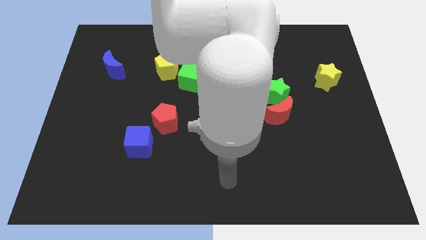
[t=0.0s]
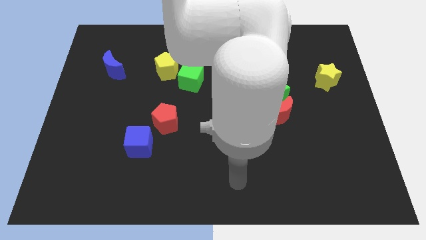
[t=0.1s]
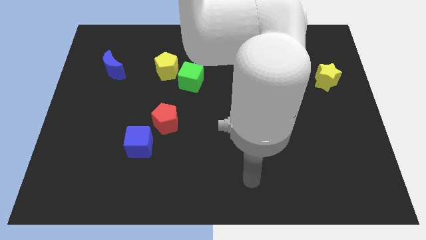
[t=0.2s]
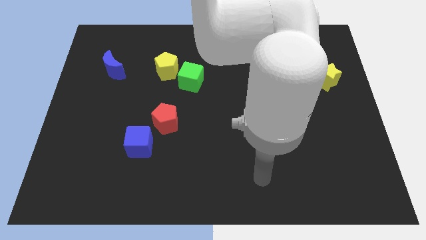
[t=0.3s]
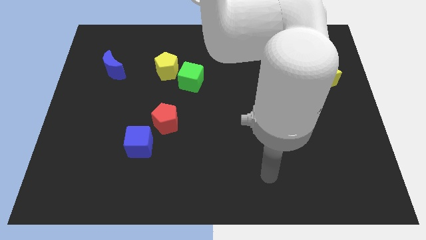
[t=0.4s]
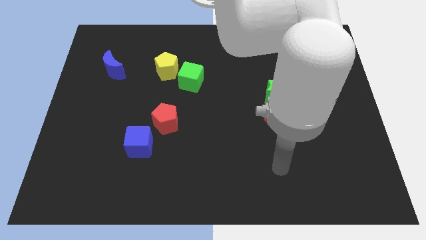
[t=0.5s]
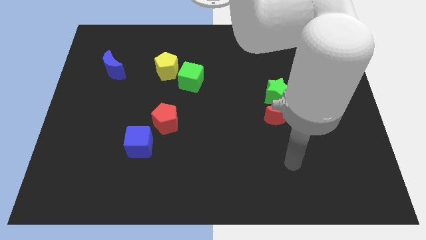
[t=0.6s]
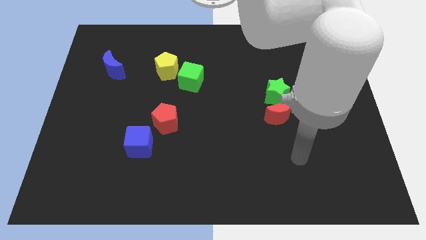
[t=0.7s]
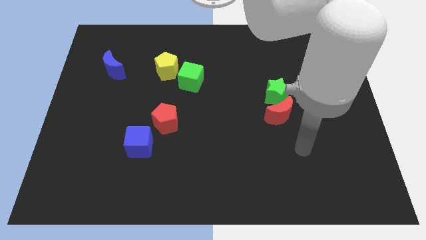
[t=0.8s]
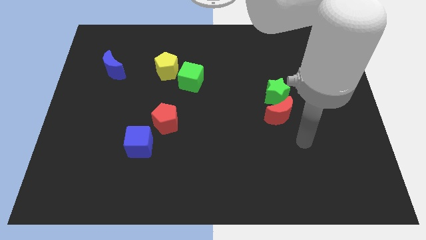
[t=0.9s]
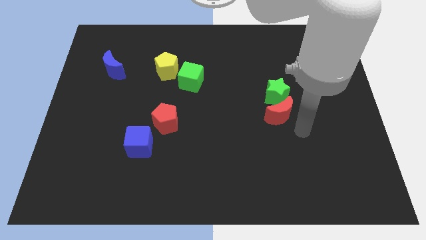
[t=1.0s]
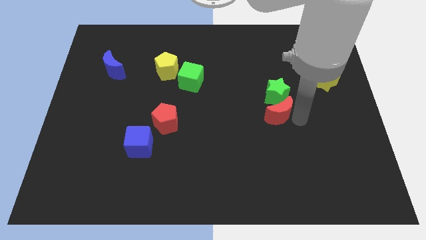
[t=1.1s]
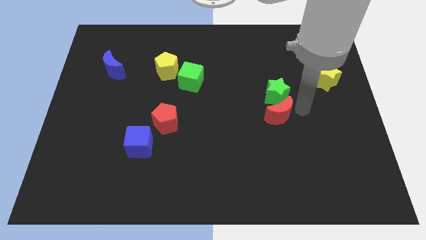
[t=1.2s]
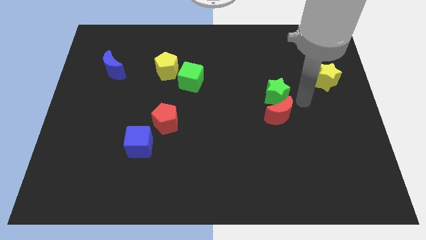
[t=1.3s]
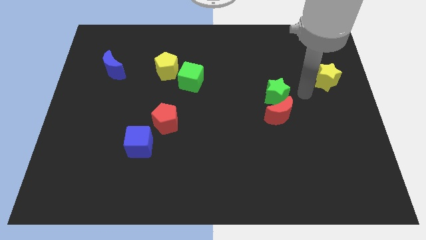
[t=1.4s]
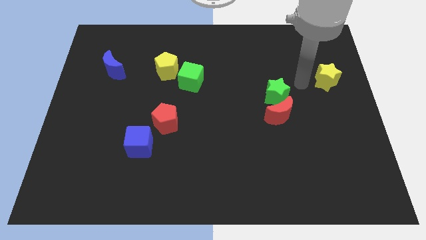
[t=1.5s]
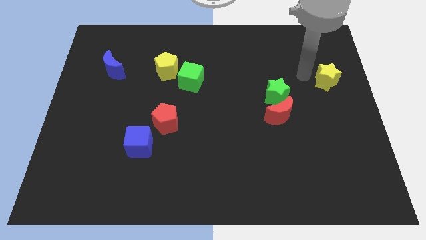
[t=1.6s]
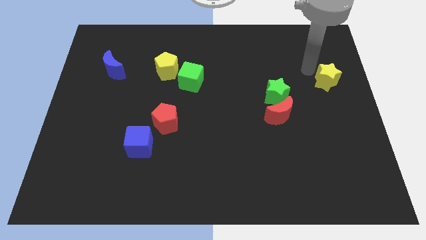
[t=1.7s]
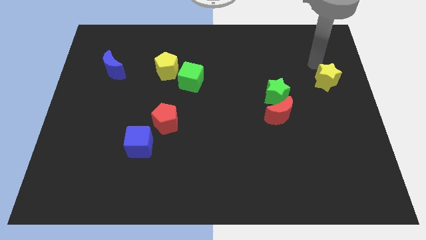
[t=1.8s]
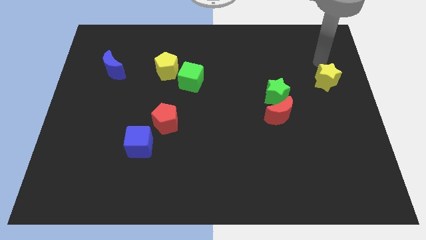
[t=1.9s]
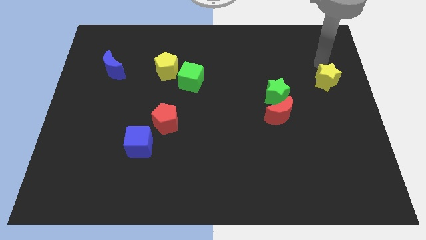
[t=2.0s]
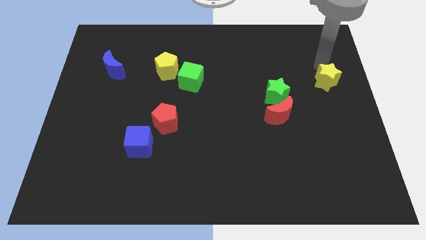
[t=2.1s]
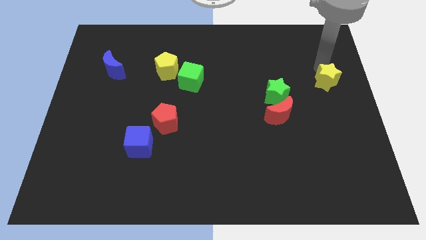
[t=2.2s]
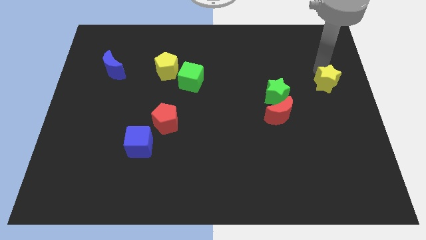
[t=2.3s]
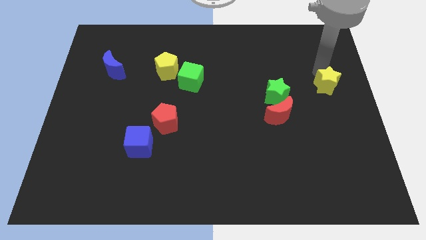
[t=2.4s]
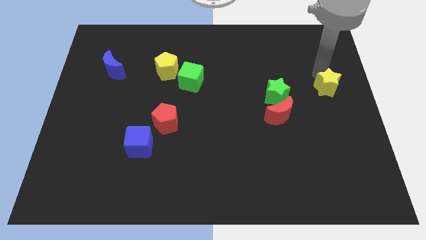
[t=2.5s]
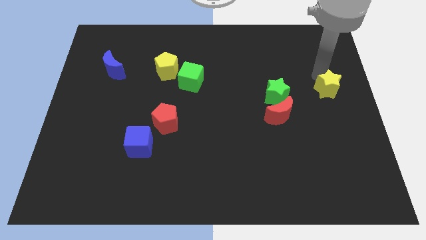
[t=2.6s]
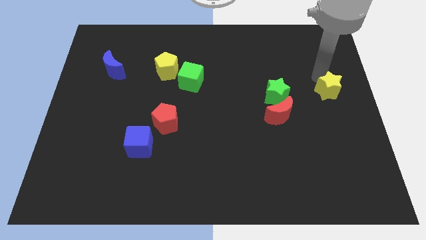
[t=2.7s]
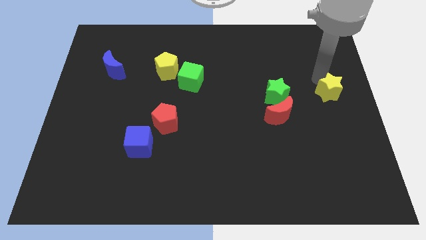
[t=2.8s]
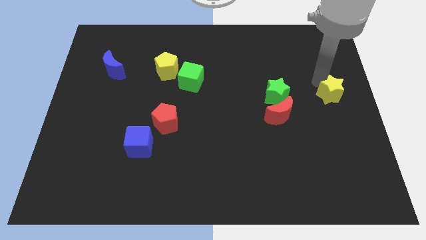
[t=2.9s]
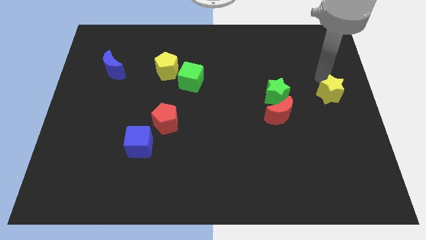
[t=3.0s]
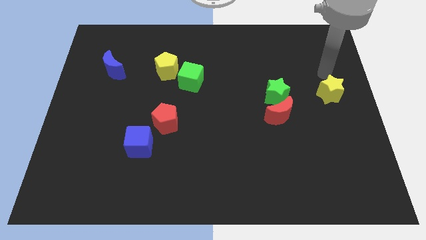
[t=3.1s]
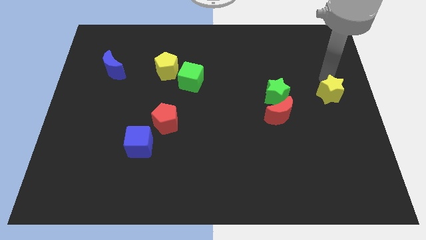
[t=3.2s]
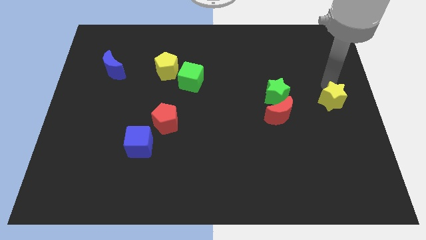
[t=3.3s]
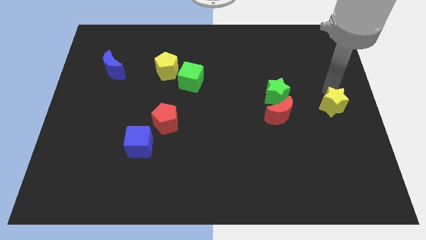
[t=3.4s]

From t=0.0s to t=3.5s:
slightly move the yellow star down

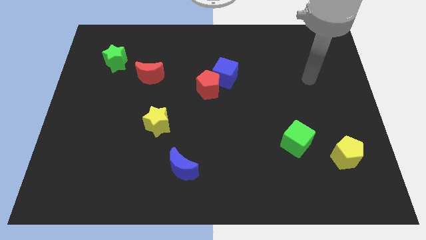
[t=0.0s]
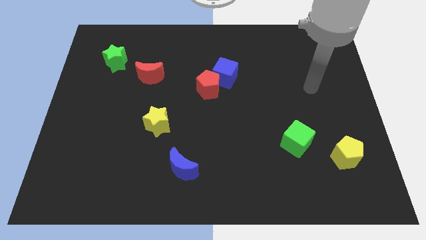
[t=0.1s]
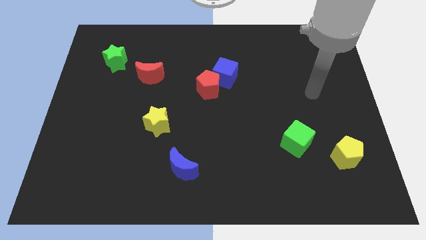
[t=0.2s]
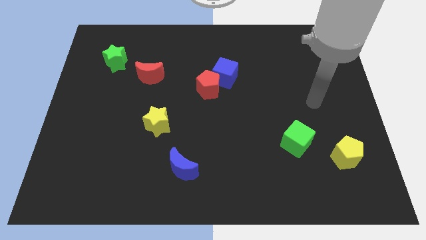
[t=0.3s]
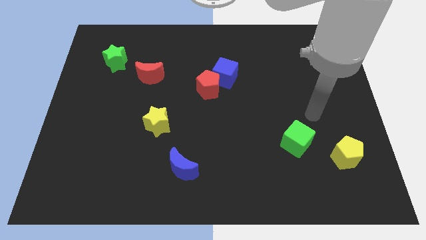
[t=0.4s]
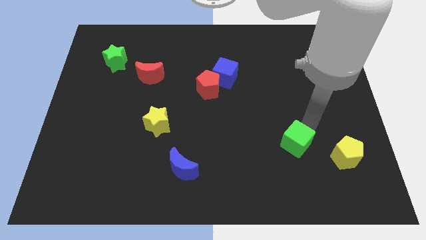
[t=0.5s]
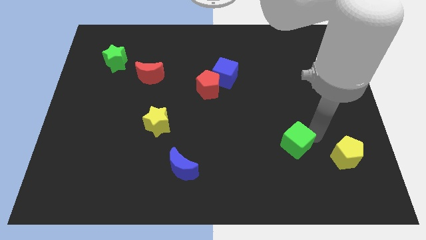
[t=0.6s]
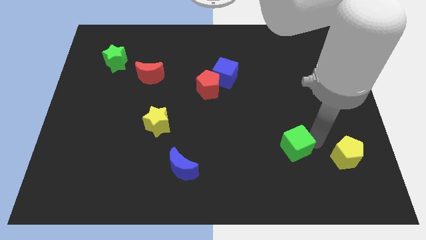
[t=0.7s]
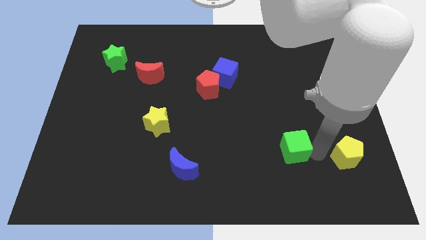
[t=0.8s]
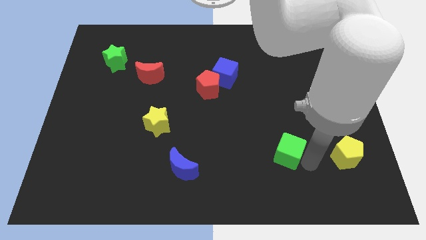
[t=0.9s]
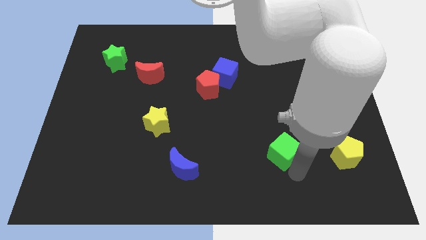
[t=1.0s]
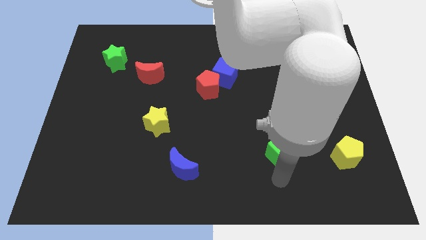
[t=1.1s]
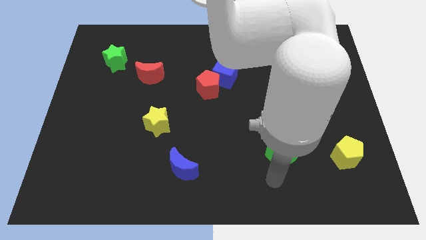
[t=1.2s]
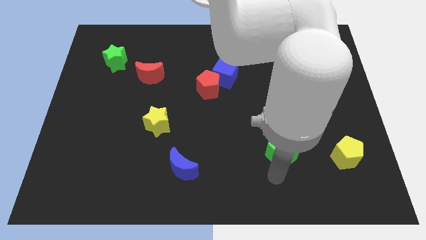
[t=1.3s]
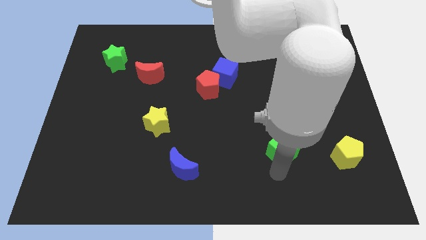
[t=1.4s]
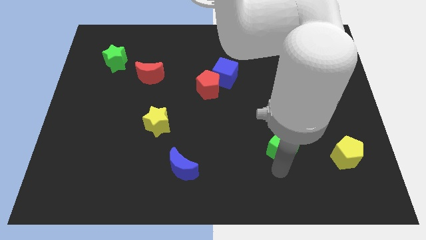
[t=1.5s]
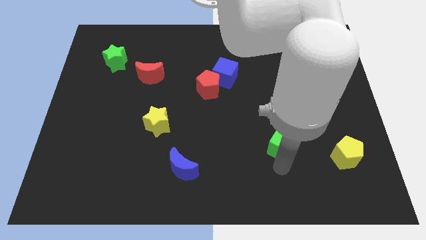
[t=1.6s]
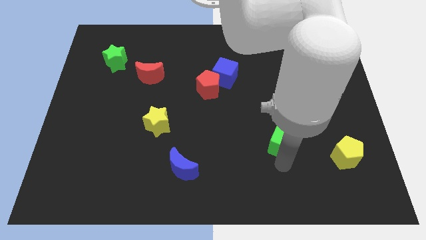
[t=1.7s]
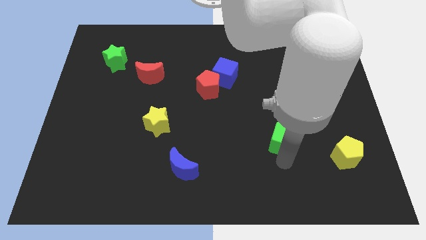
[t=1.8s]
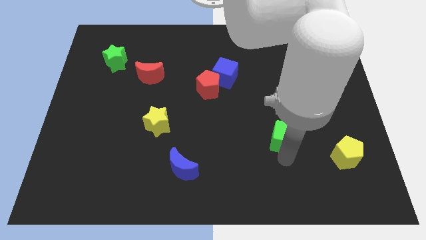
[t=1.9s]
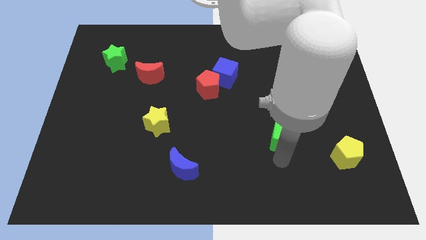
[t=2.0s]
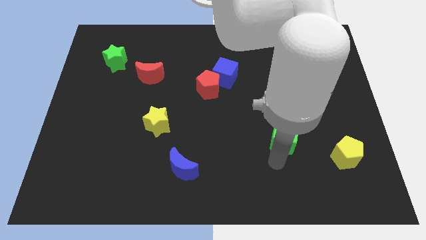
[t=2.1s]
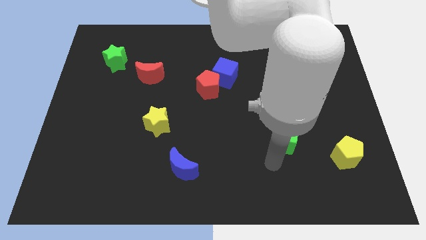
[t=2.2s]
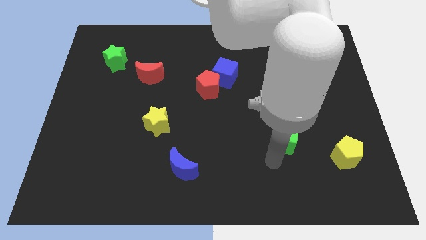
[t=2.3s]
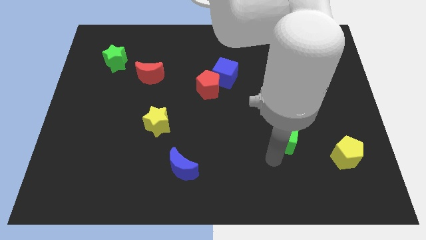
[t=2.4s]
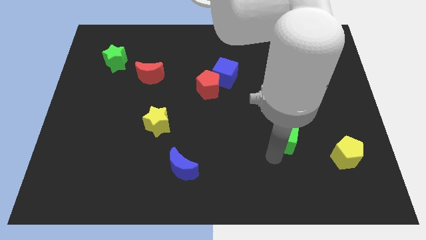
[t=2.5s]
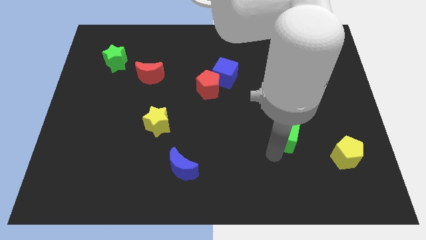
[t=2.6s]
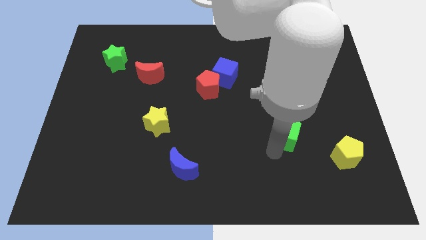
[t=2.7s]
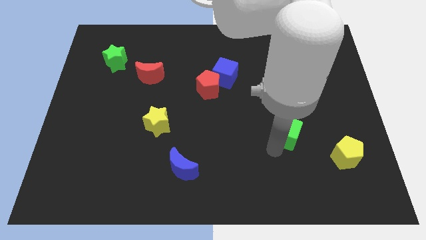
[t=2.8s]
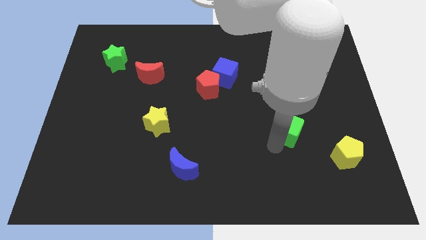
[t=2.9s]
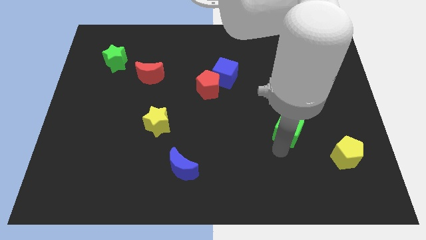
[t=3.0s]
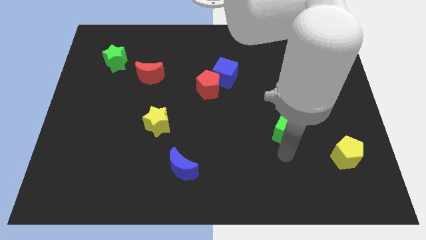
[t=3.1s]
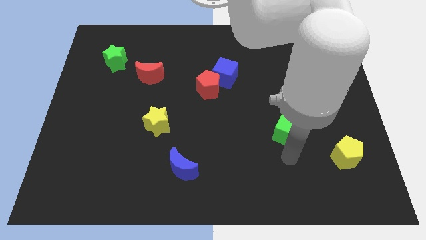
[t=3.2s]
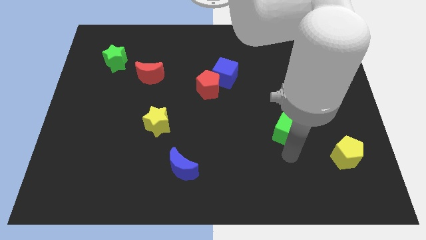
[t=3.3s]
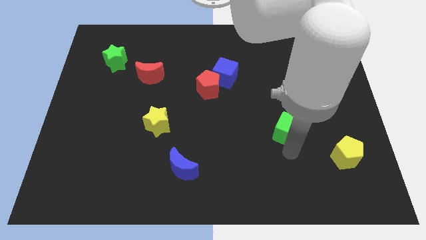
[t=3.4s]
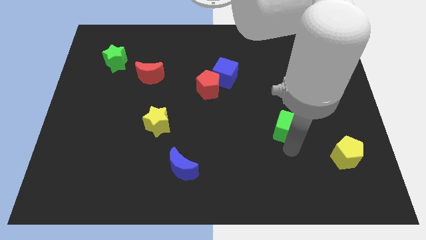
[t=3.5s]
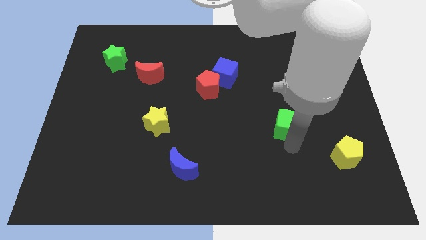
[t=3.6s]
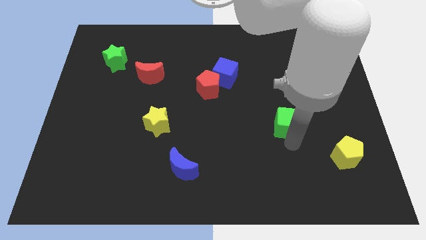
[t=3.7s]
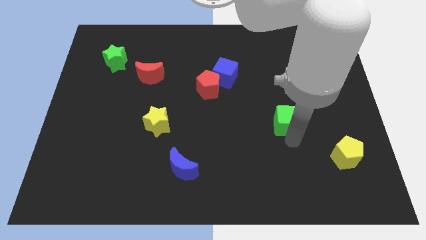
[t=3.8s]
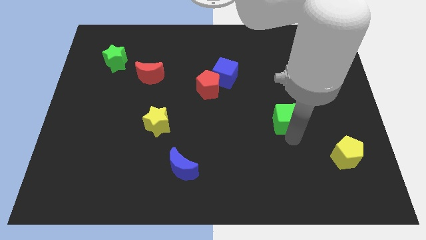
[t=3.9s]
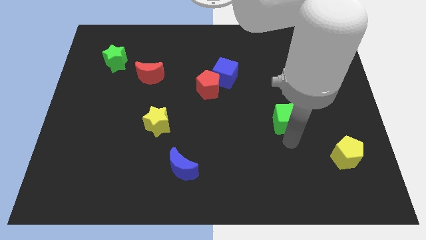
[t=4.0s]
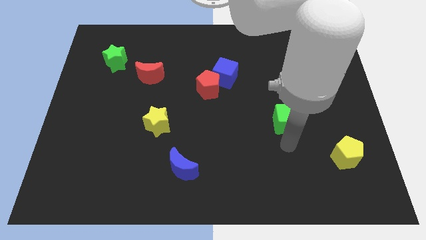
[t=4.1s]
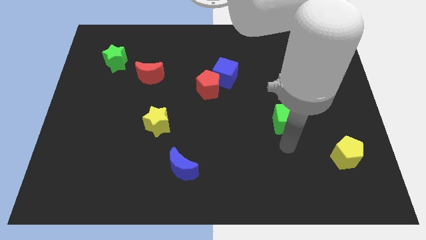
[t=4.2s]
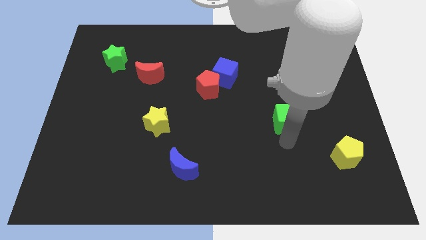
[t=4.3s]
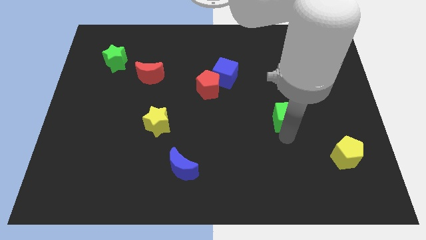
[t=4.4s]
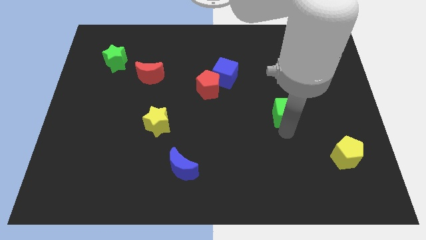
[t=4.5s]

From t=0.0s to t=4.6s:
slide the green cube a bit up

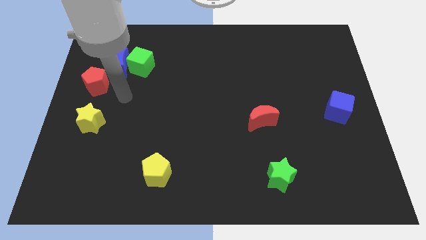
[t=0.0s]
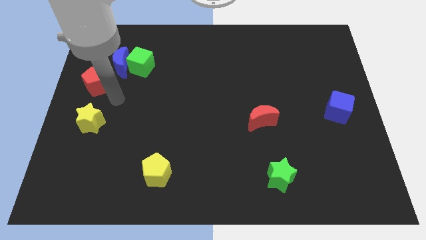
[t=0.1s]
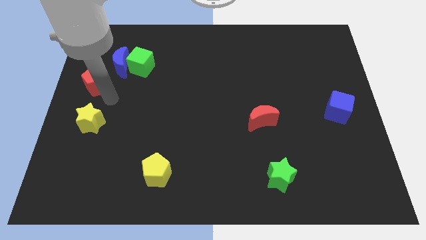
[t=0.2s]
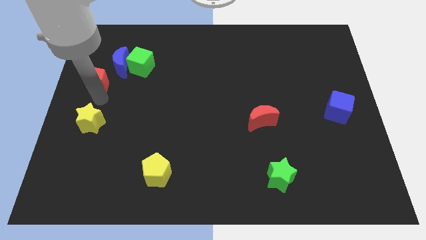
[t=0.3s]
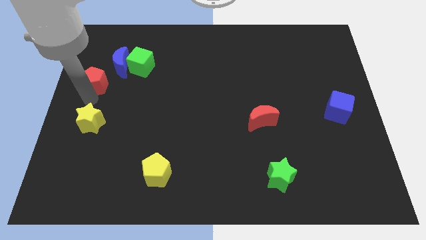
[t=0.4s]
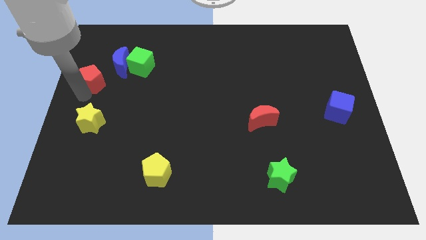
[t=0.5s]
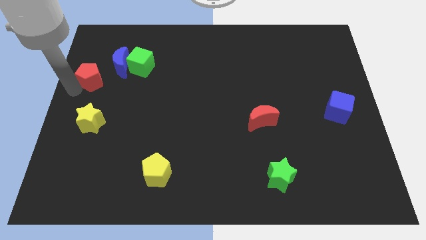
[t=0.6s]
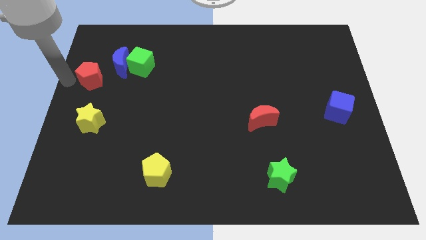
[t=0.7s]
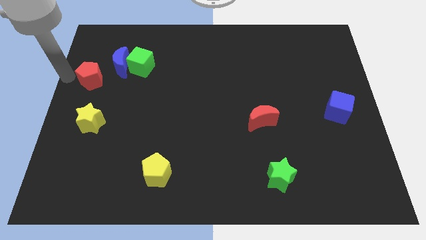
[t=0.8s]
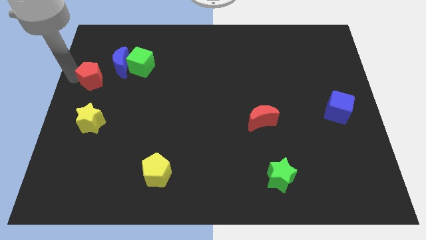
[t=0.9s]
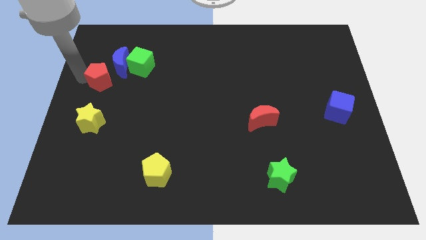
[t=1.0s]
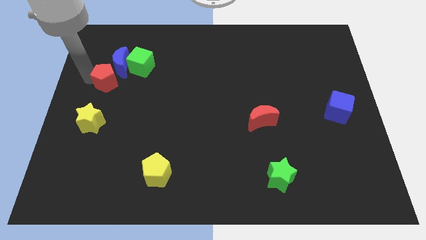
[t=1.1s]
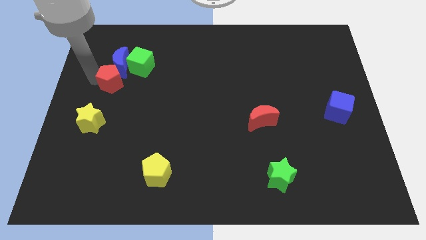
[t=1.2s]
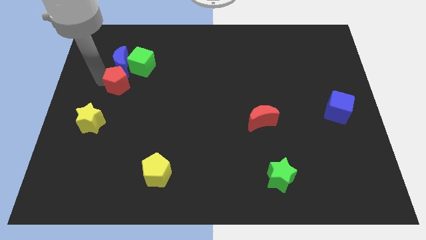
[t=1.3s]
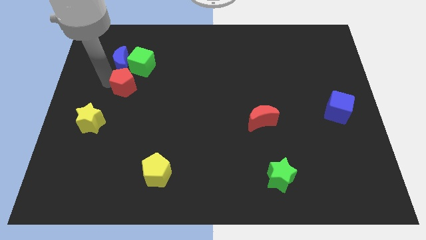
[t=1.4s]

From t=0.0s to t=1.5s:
move the red pentagon to the right a bit
